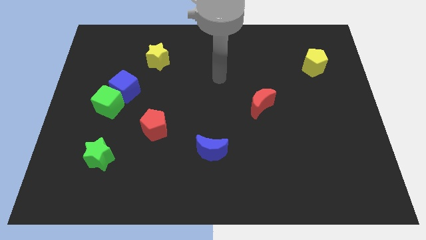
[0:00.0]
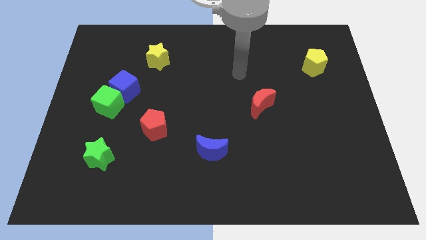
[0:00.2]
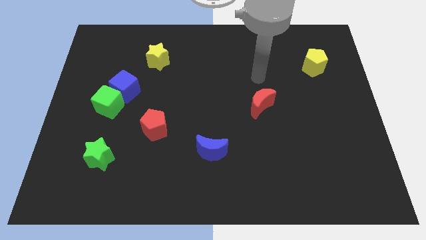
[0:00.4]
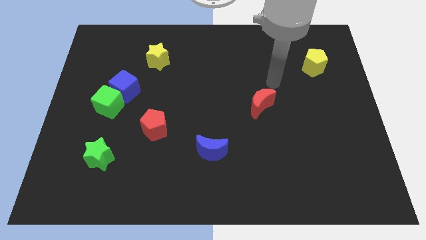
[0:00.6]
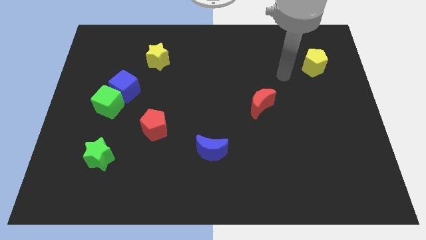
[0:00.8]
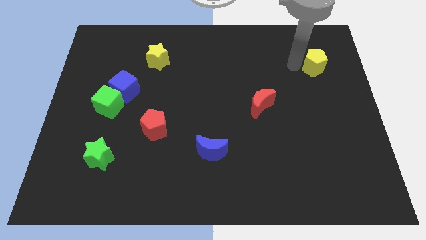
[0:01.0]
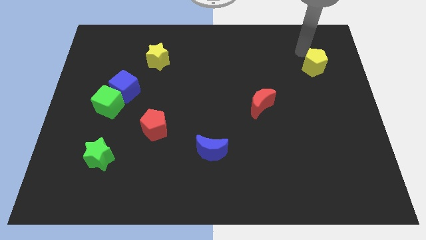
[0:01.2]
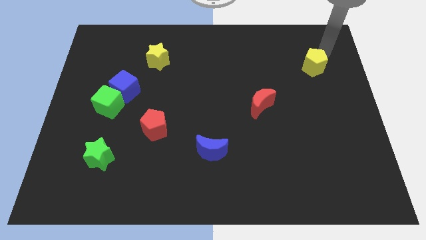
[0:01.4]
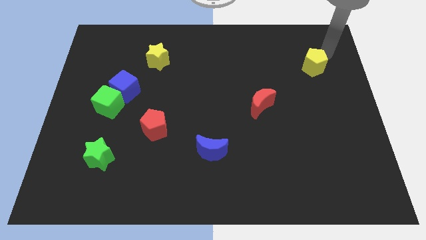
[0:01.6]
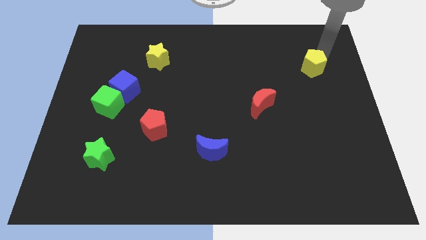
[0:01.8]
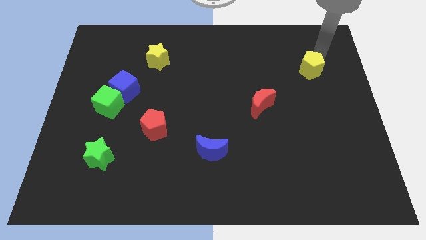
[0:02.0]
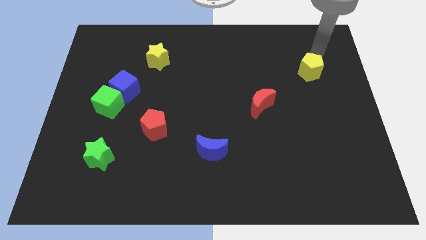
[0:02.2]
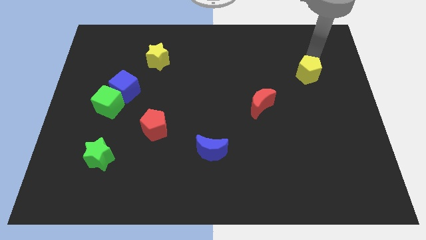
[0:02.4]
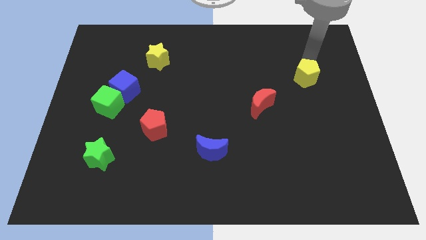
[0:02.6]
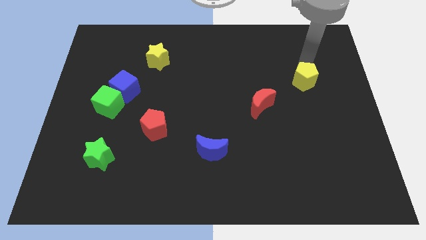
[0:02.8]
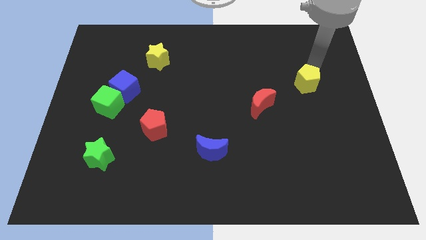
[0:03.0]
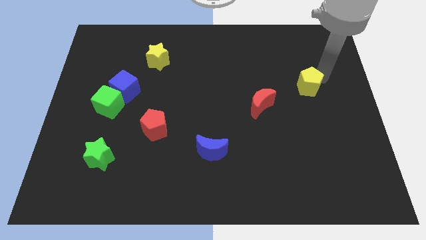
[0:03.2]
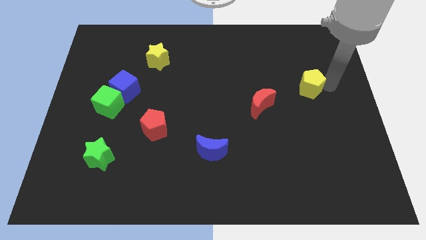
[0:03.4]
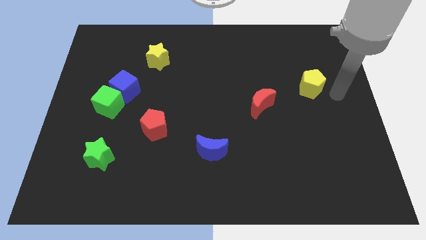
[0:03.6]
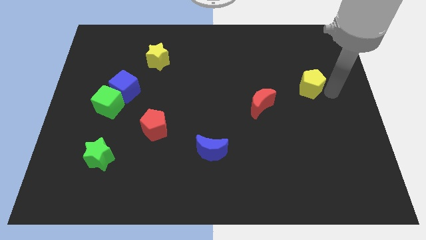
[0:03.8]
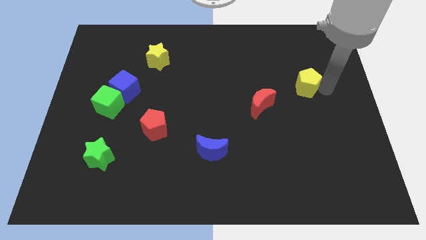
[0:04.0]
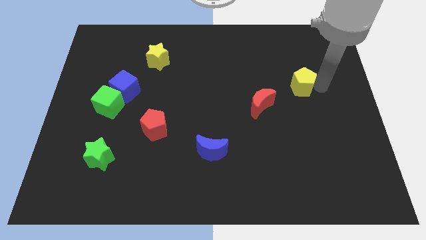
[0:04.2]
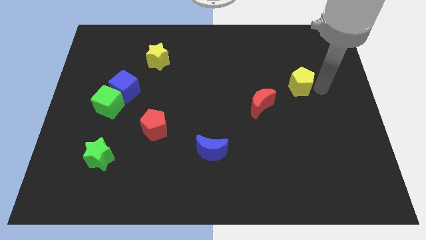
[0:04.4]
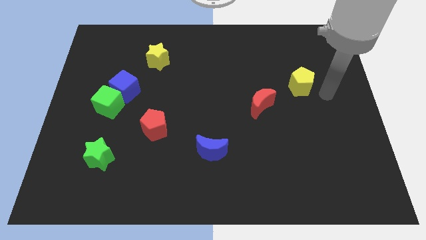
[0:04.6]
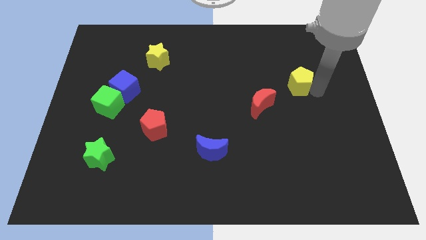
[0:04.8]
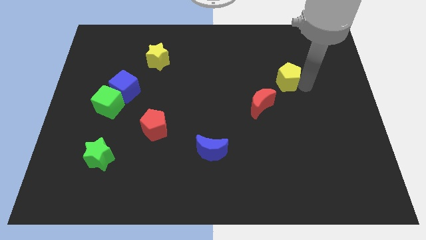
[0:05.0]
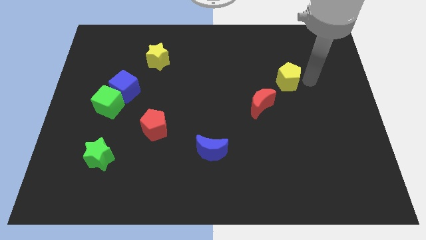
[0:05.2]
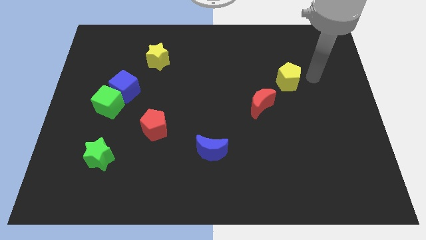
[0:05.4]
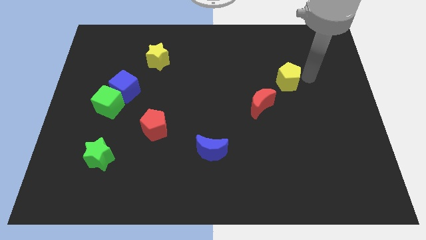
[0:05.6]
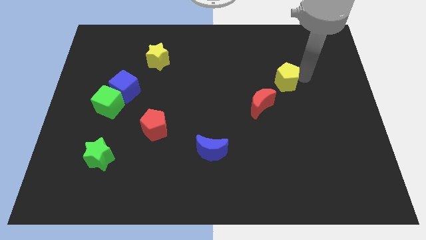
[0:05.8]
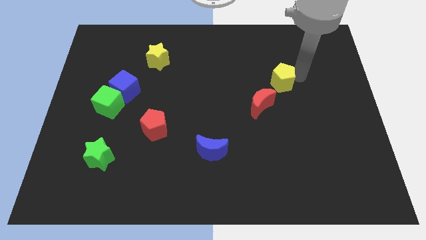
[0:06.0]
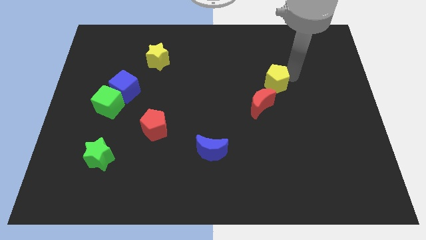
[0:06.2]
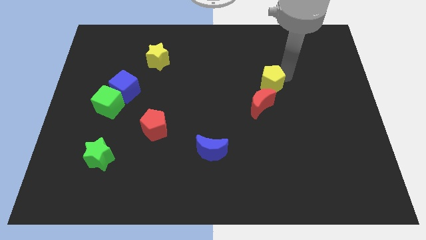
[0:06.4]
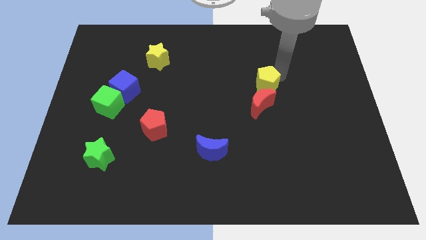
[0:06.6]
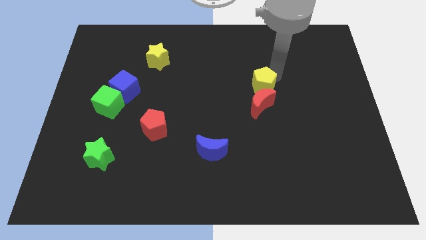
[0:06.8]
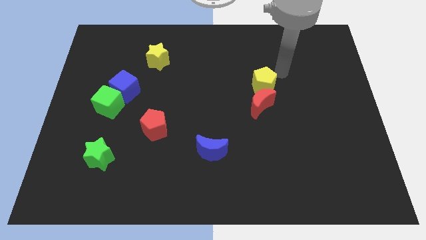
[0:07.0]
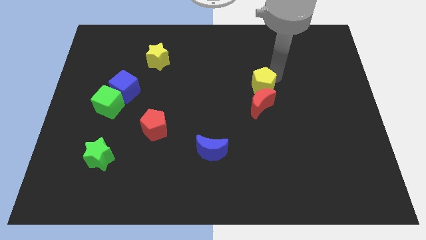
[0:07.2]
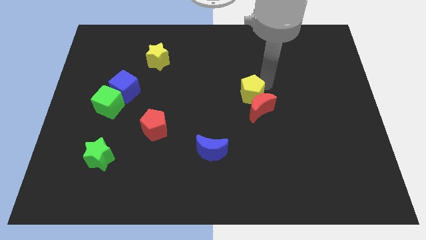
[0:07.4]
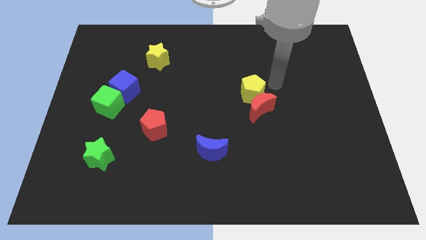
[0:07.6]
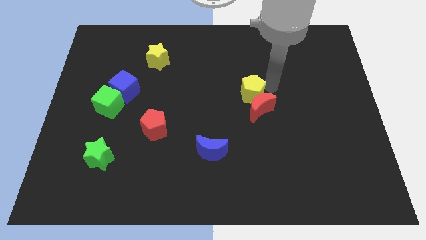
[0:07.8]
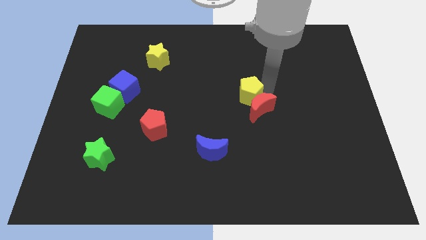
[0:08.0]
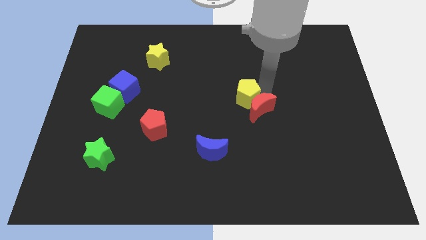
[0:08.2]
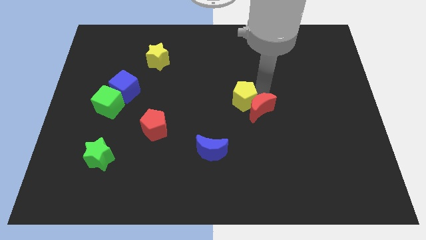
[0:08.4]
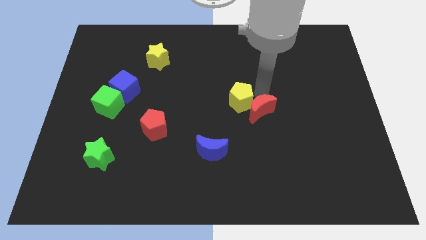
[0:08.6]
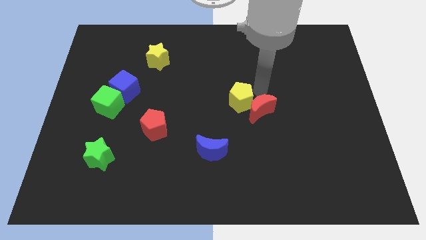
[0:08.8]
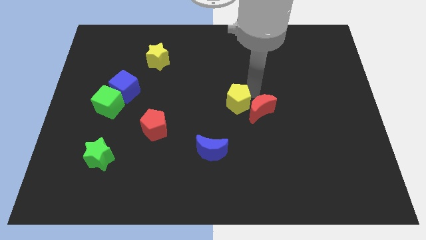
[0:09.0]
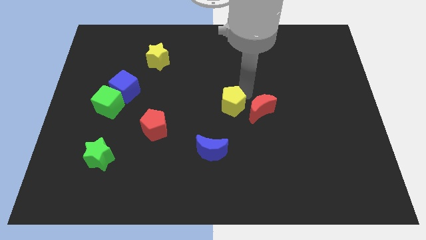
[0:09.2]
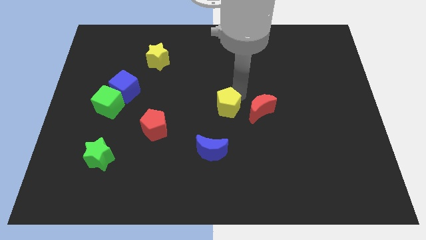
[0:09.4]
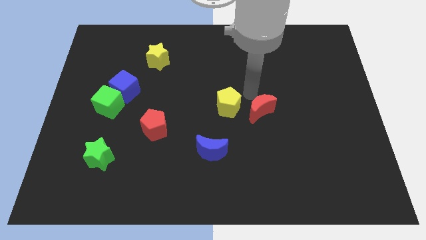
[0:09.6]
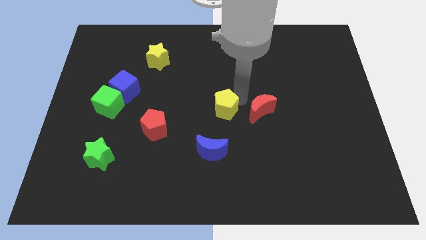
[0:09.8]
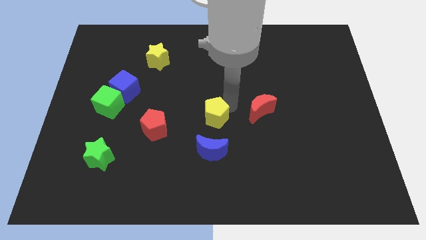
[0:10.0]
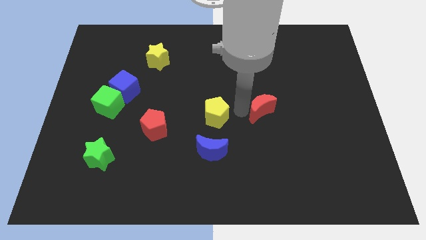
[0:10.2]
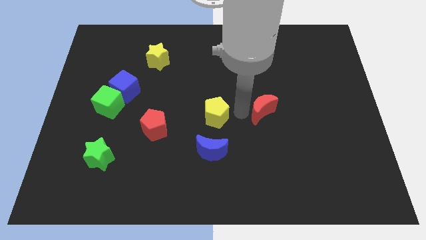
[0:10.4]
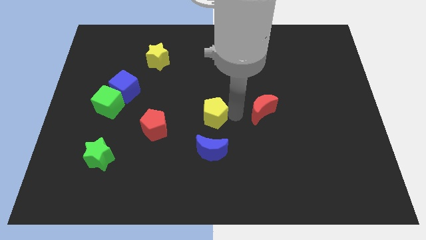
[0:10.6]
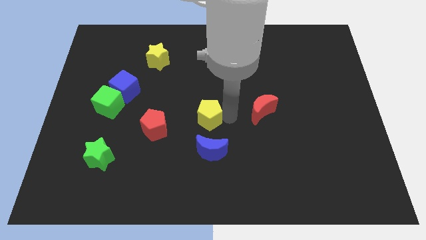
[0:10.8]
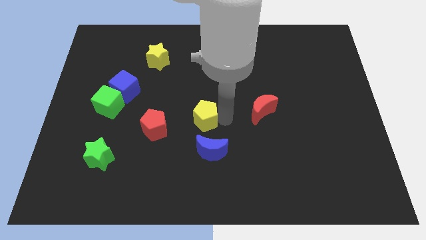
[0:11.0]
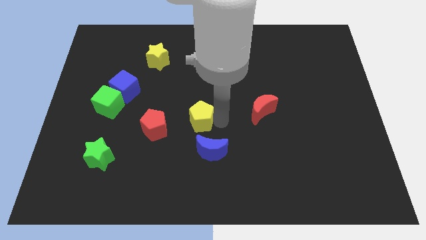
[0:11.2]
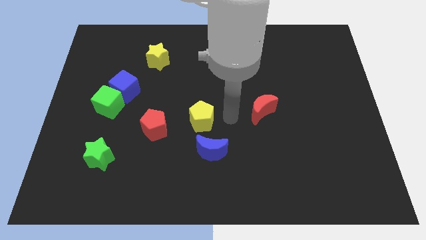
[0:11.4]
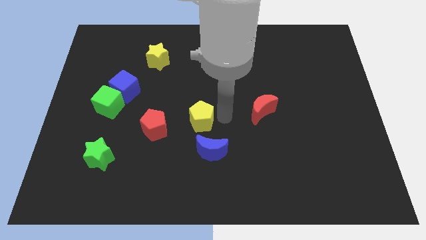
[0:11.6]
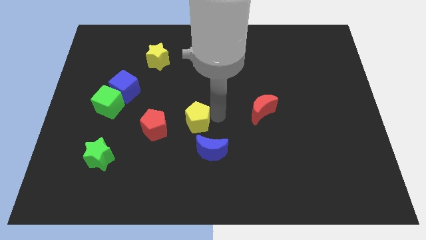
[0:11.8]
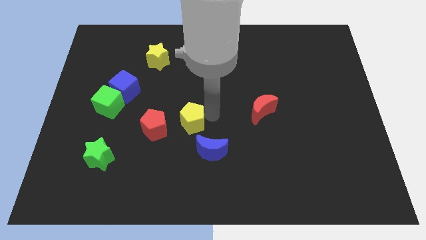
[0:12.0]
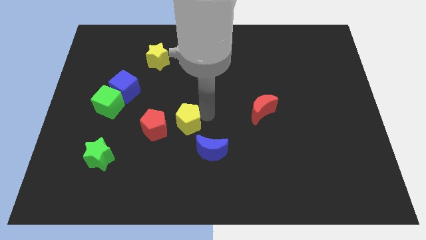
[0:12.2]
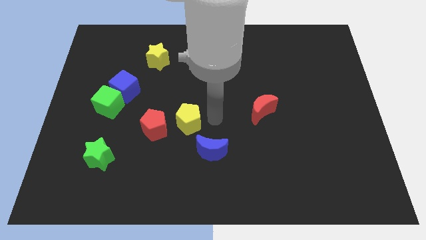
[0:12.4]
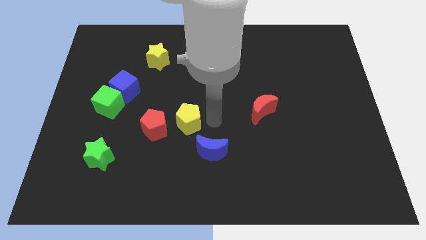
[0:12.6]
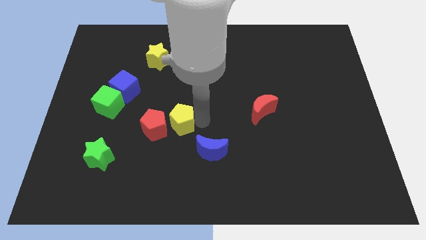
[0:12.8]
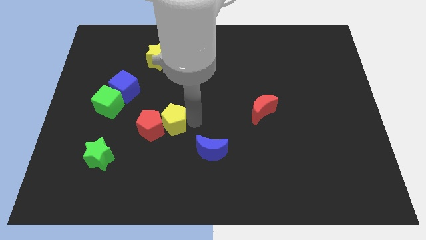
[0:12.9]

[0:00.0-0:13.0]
slide the yellow pentagon next to the red pentagon

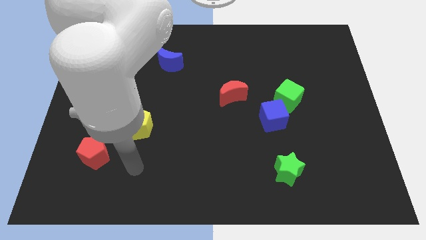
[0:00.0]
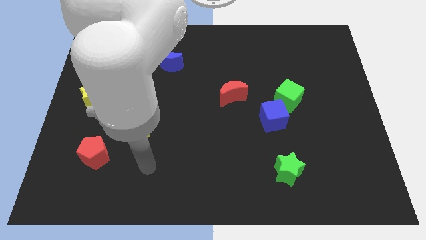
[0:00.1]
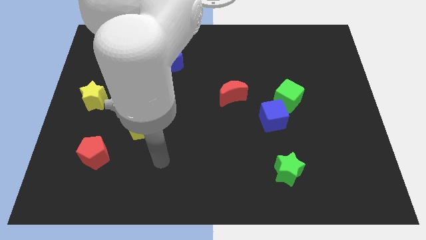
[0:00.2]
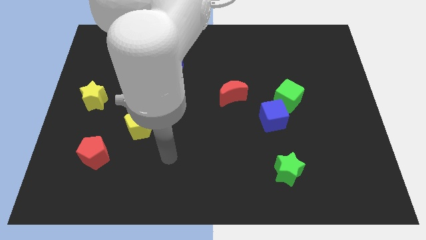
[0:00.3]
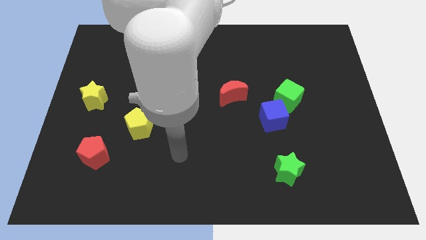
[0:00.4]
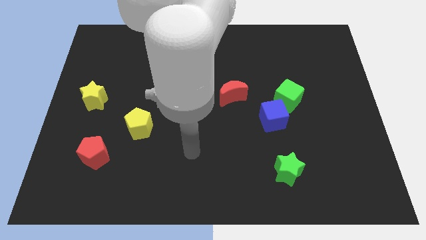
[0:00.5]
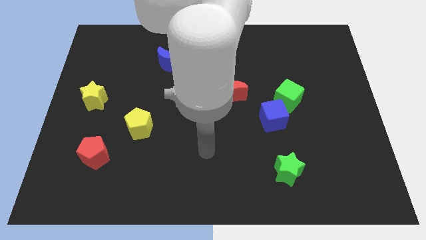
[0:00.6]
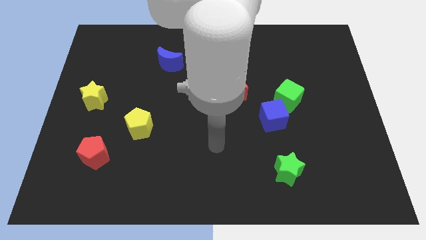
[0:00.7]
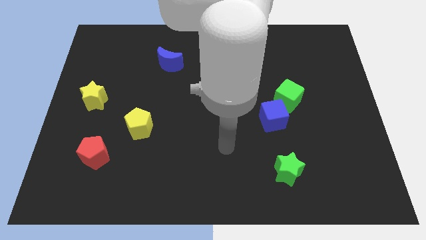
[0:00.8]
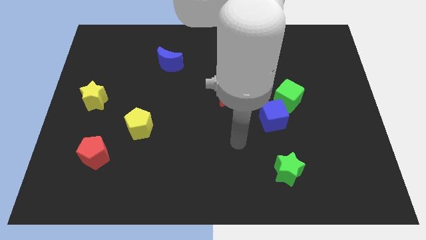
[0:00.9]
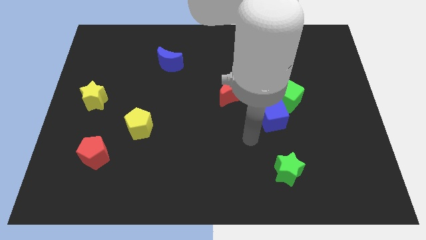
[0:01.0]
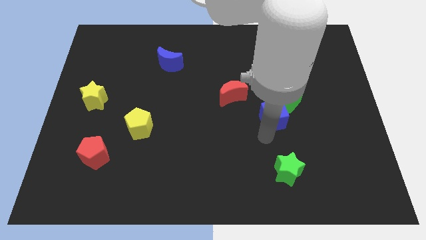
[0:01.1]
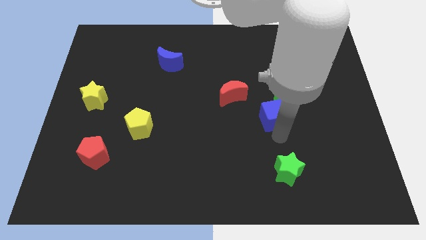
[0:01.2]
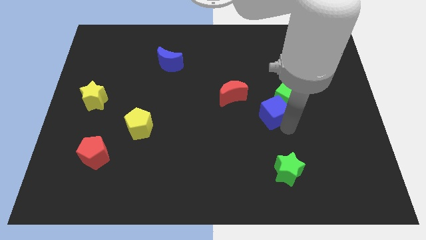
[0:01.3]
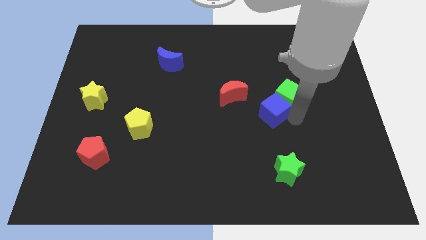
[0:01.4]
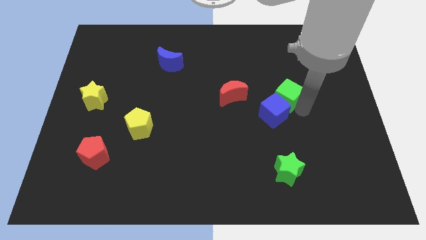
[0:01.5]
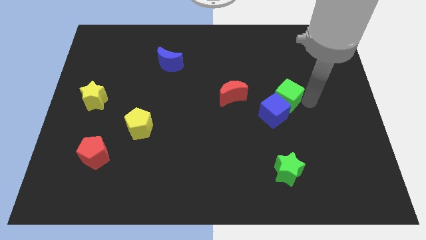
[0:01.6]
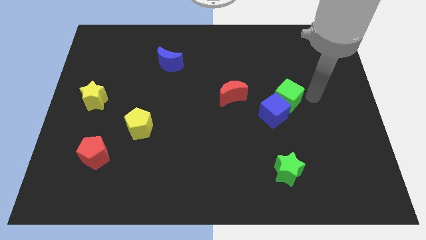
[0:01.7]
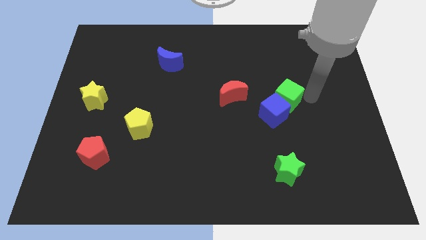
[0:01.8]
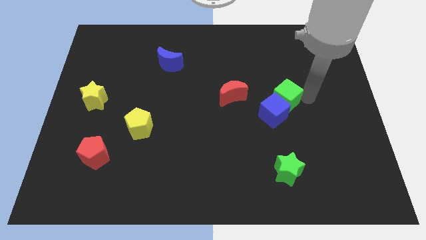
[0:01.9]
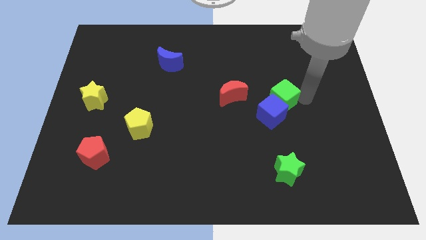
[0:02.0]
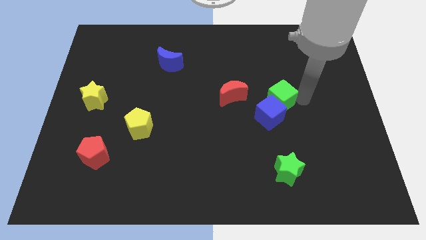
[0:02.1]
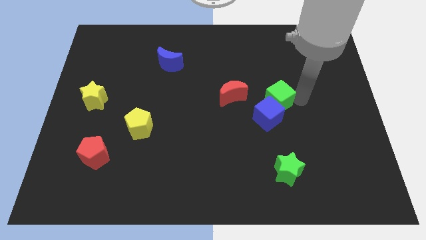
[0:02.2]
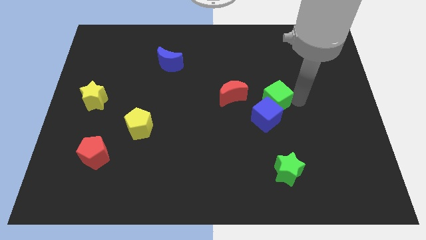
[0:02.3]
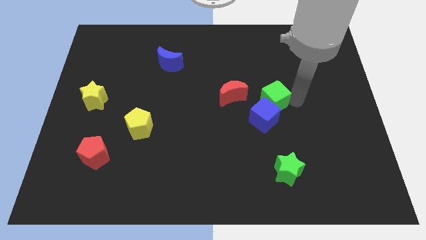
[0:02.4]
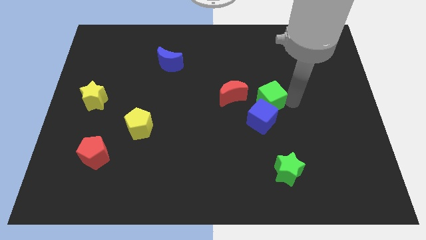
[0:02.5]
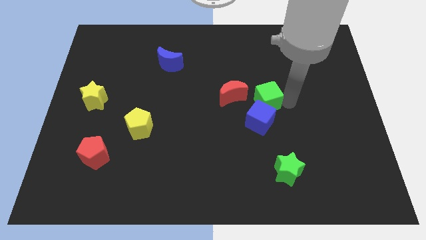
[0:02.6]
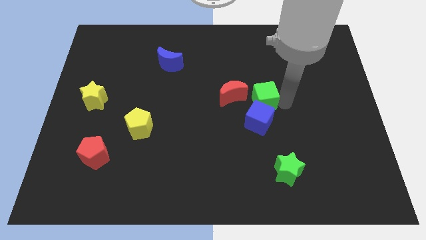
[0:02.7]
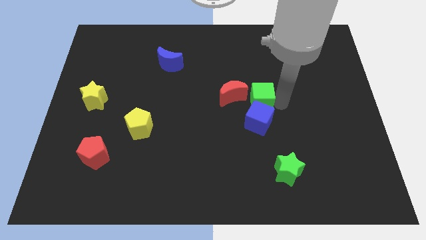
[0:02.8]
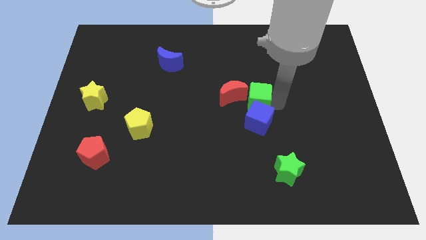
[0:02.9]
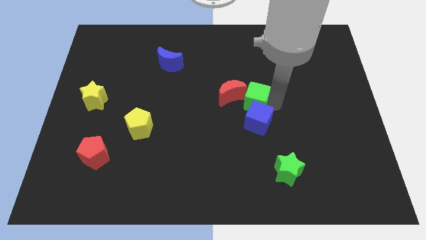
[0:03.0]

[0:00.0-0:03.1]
slide the green cube next to the red moon
